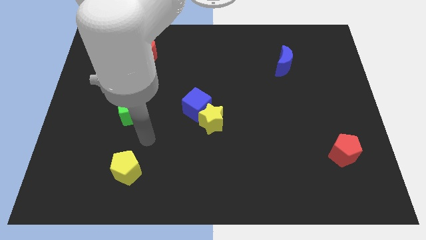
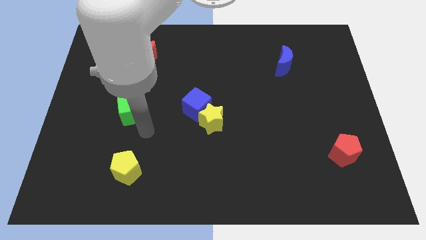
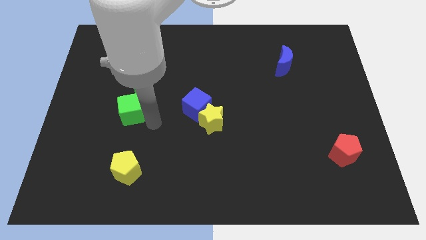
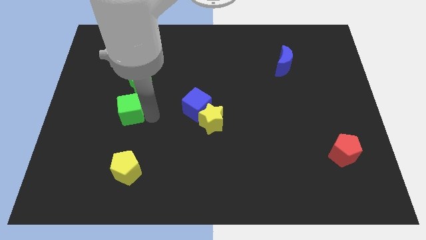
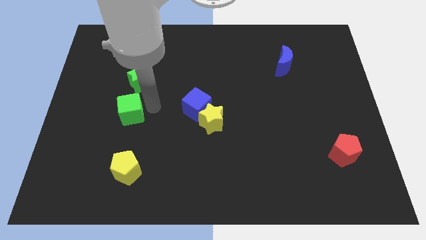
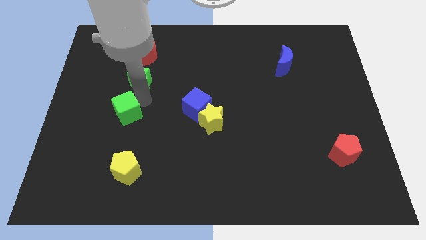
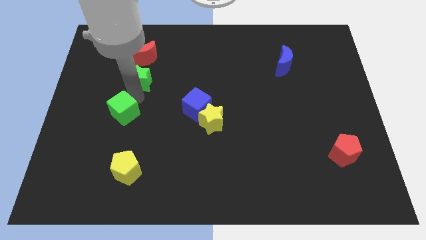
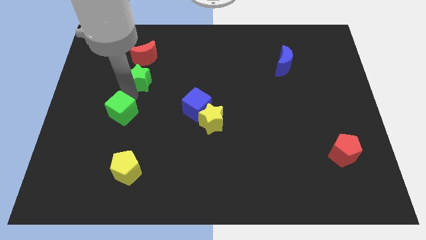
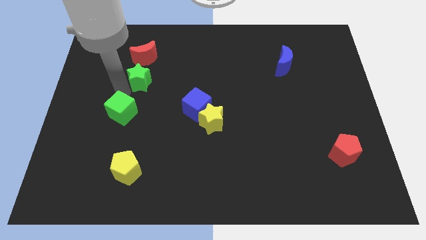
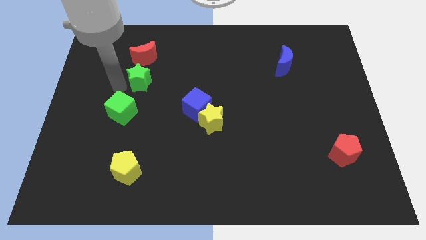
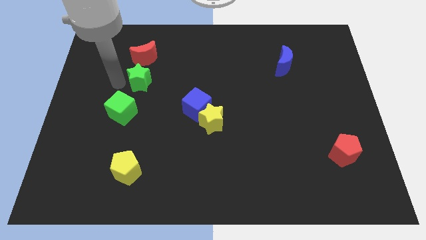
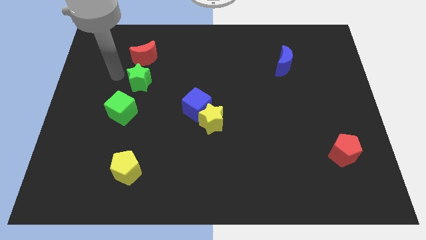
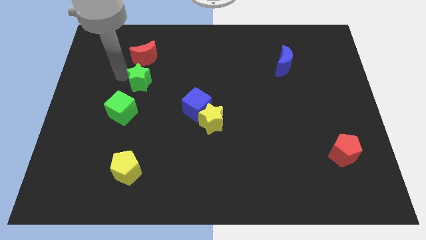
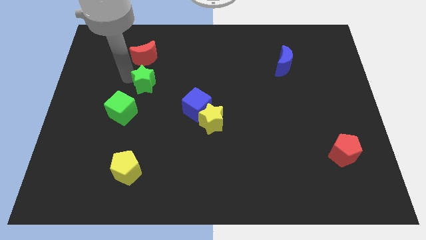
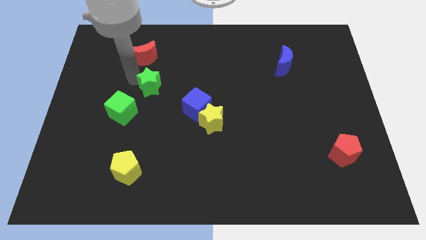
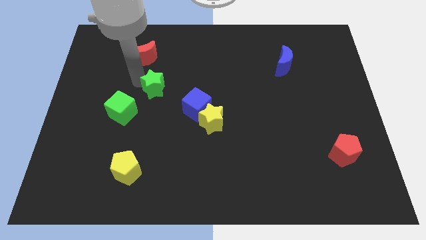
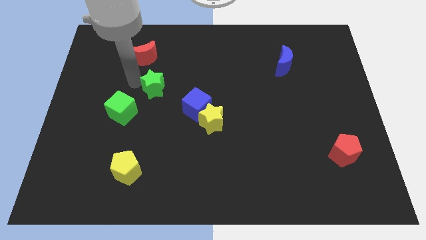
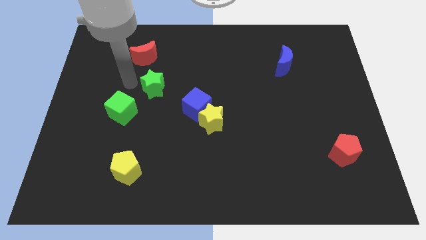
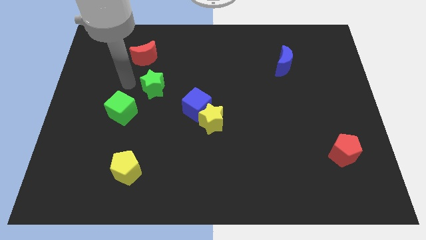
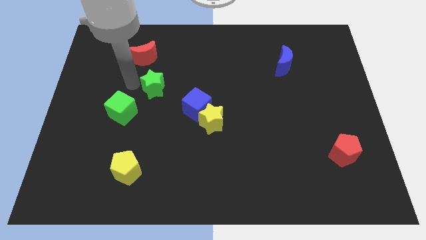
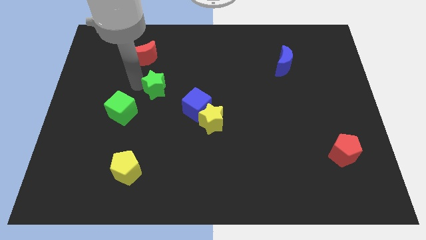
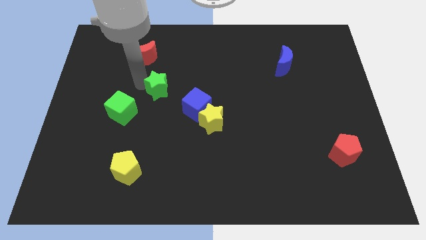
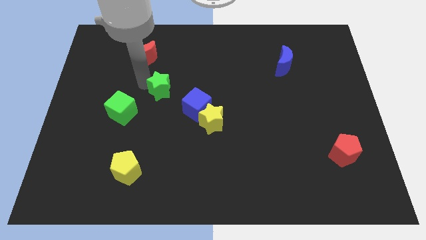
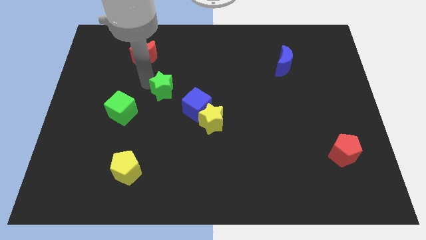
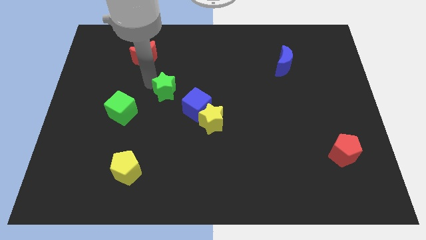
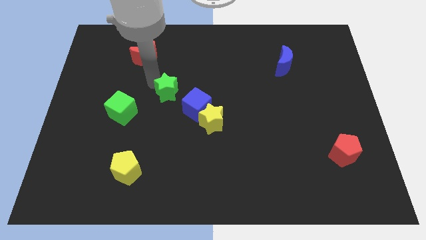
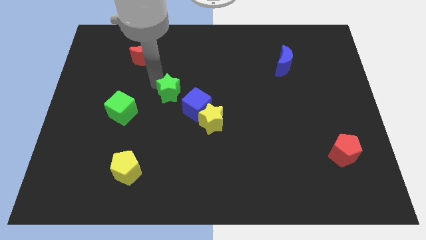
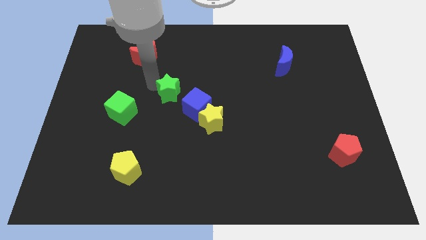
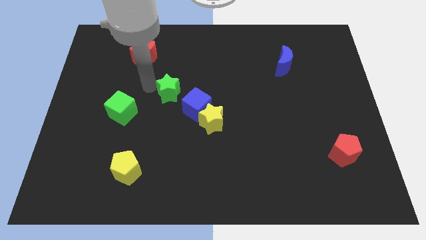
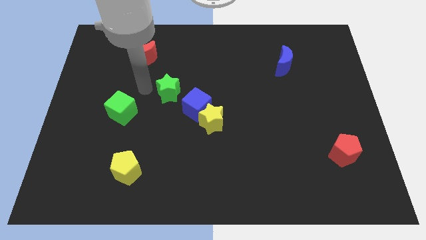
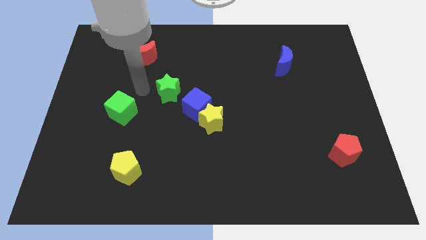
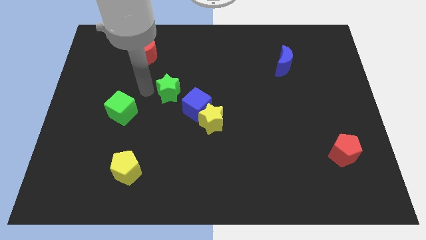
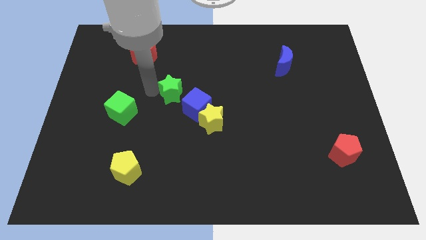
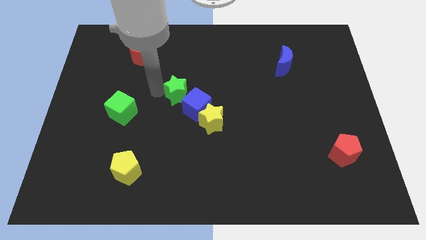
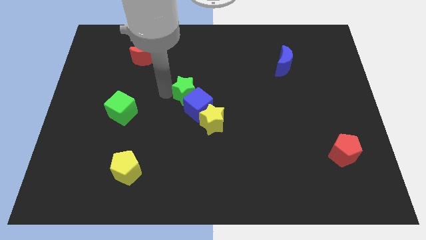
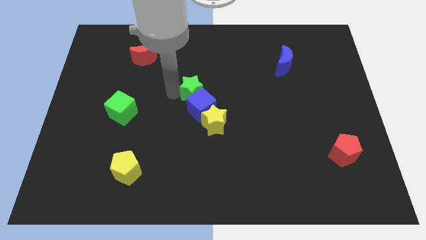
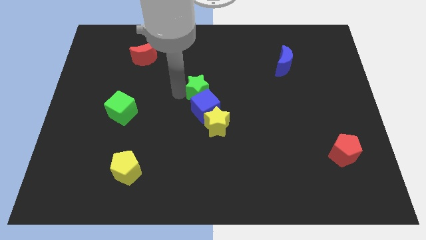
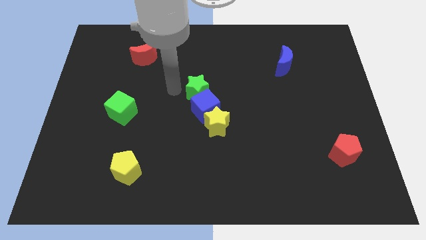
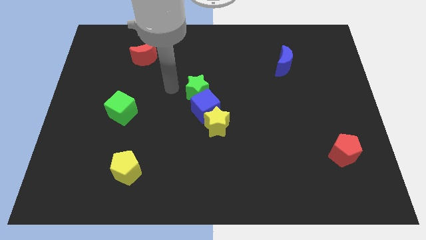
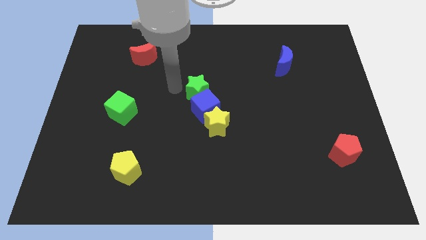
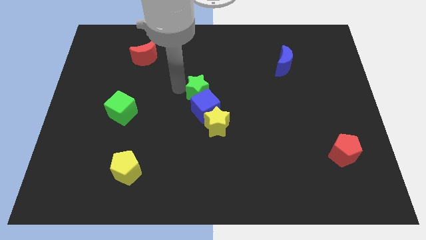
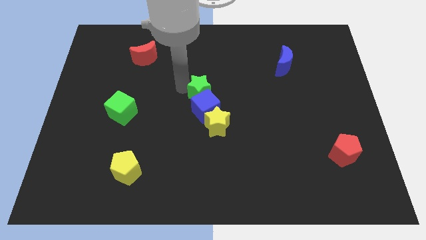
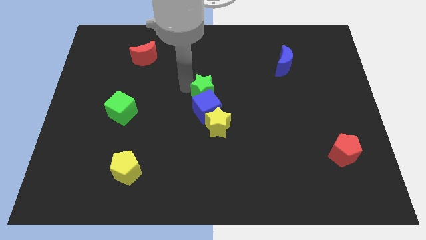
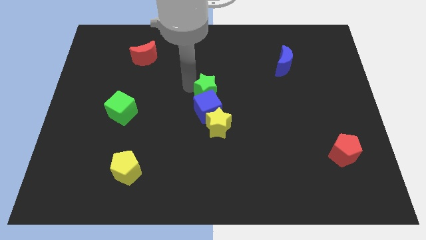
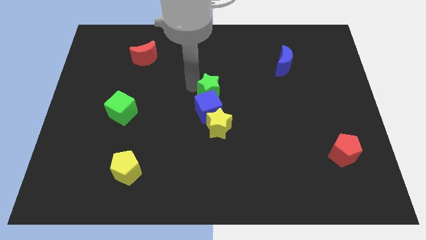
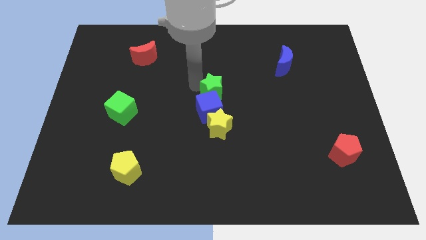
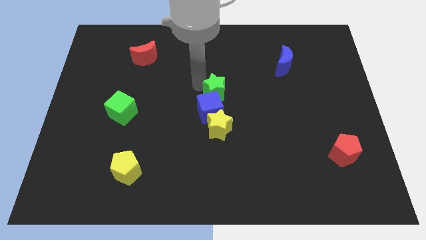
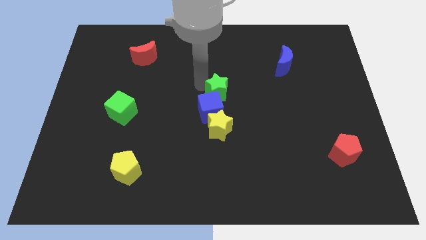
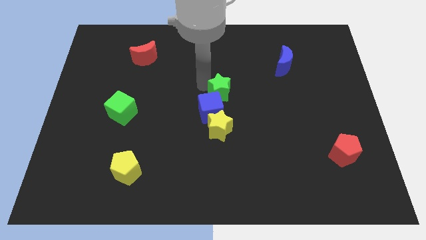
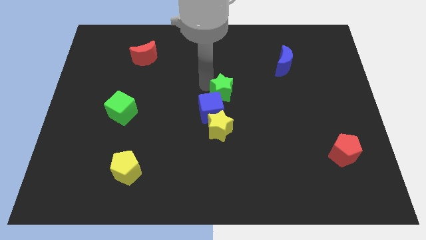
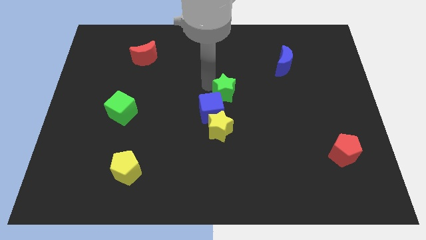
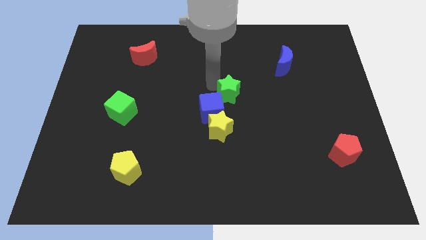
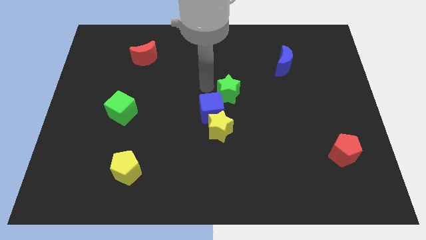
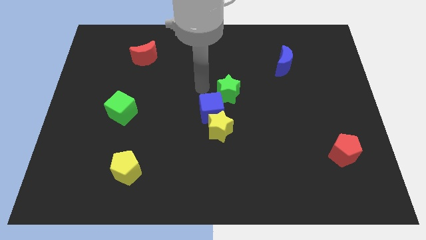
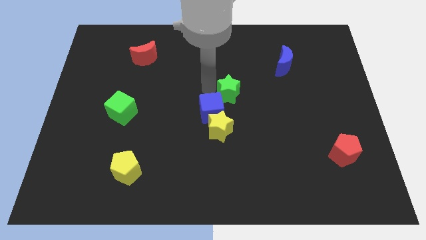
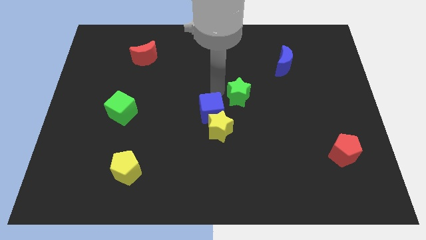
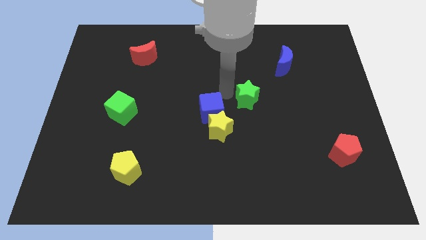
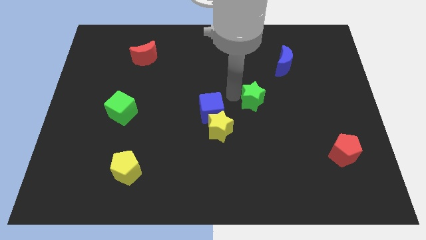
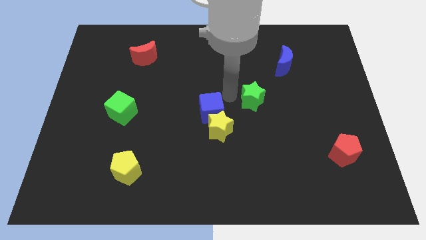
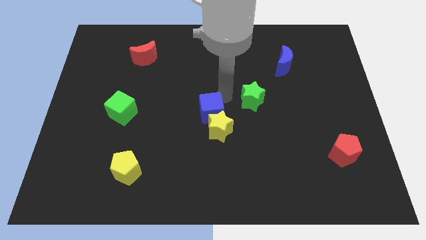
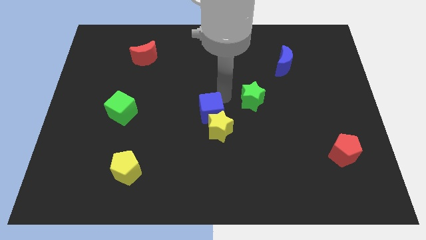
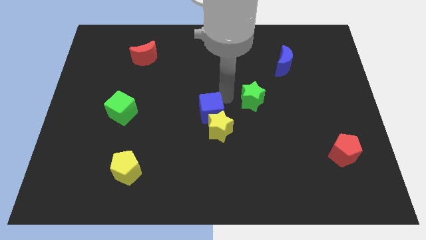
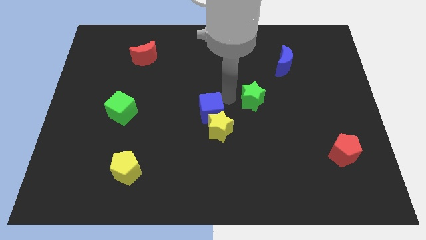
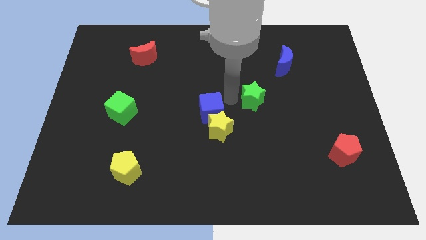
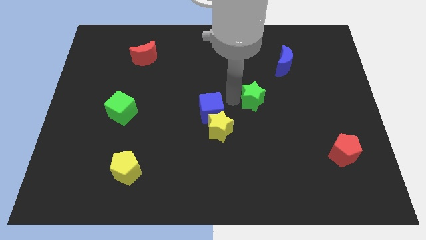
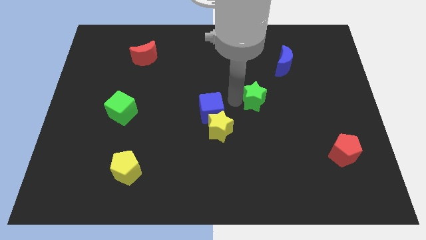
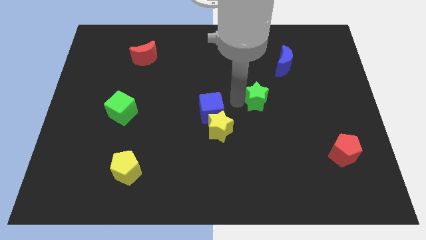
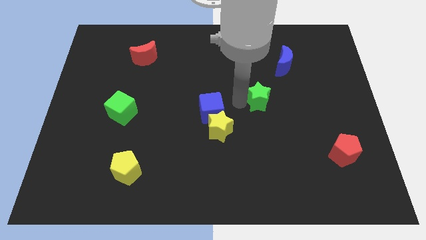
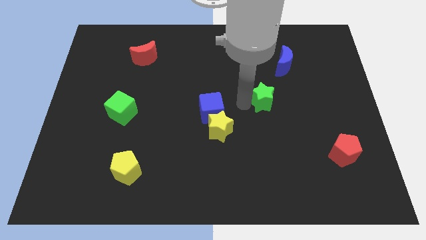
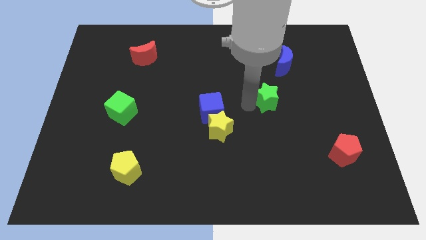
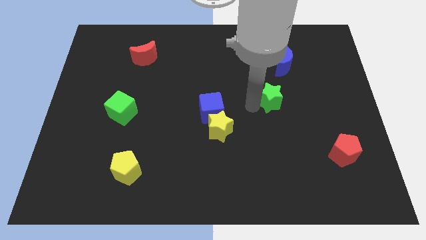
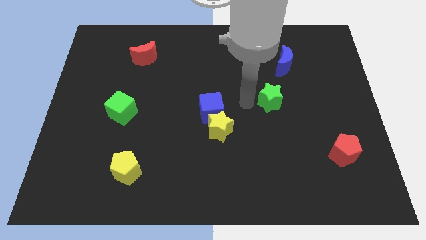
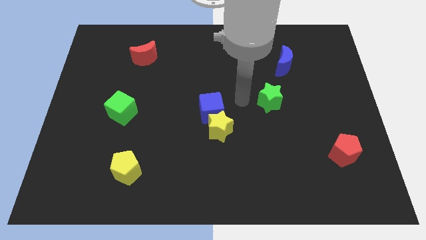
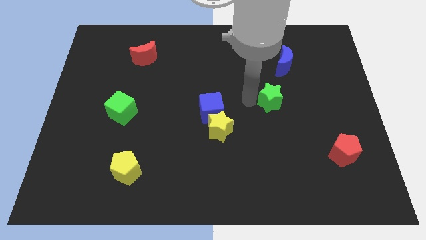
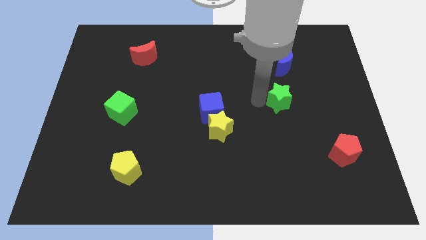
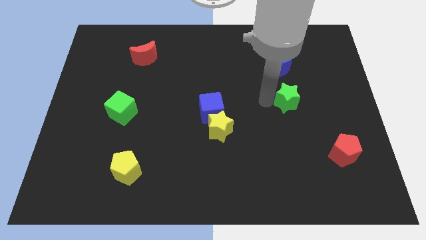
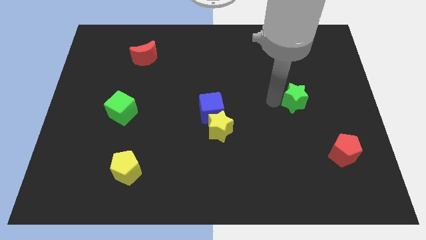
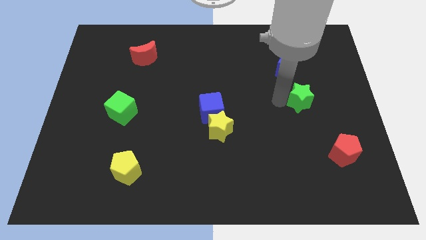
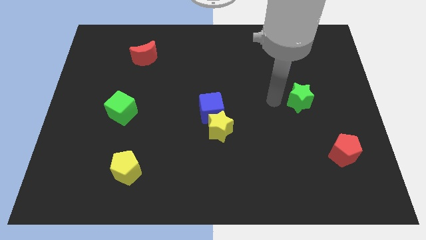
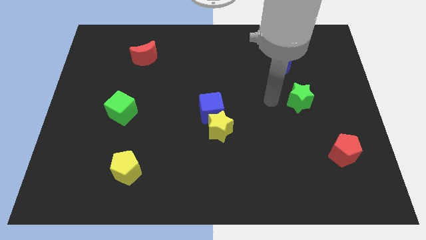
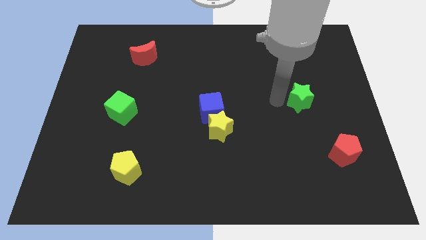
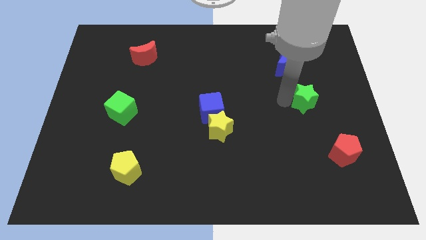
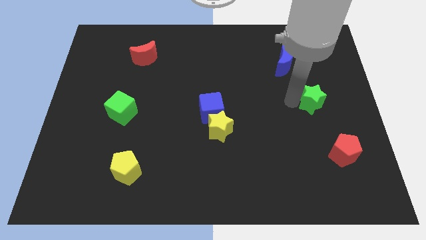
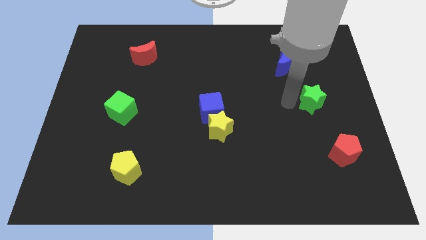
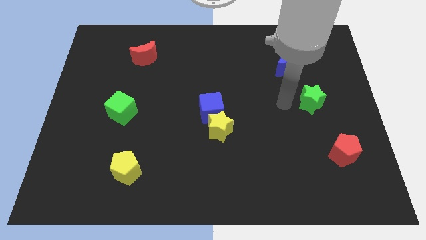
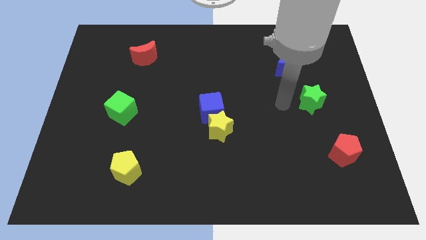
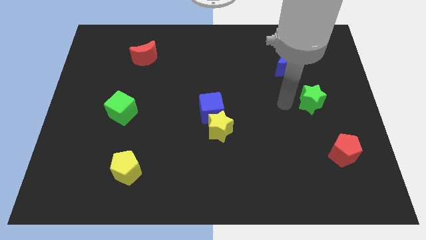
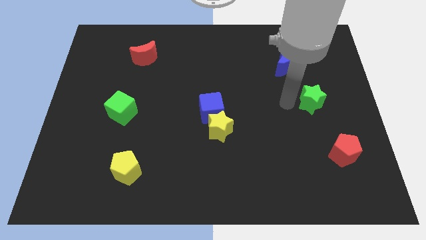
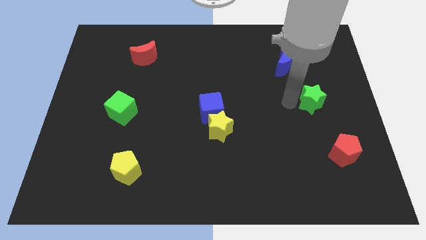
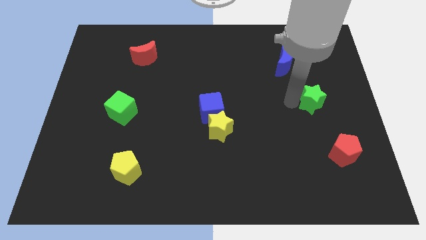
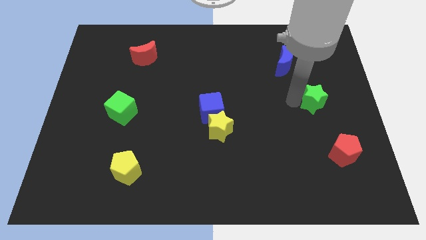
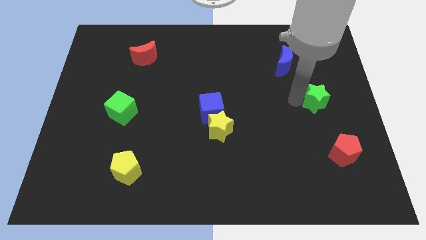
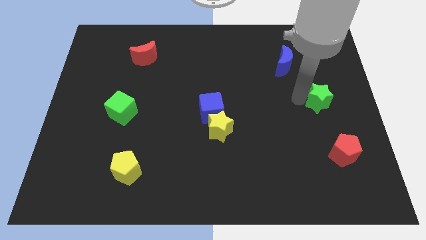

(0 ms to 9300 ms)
move the green star to the center right
